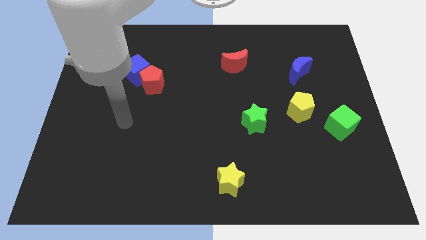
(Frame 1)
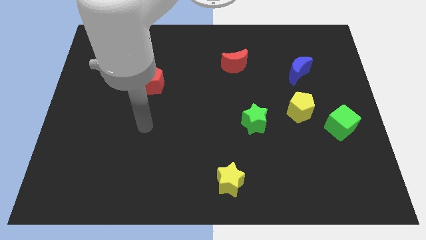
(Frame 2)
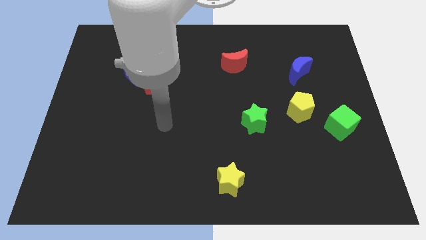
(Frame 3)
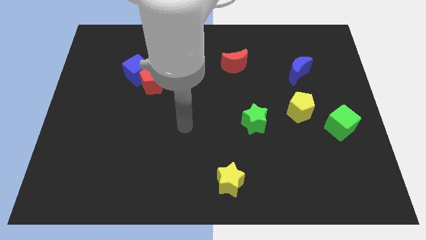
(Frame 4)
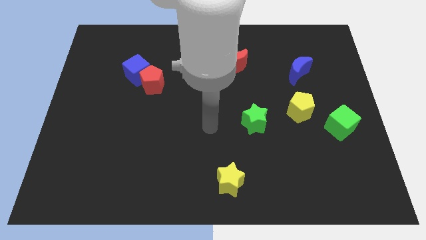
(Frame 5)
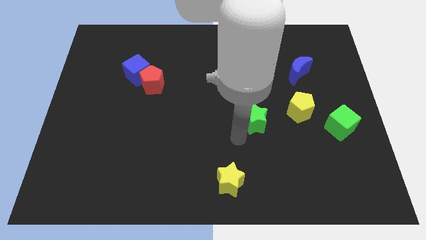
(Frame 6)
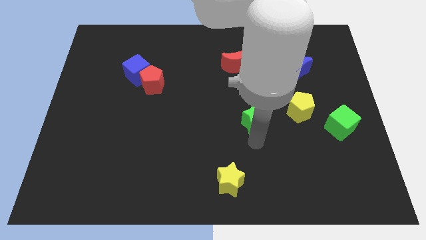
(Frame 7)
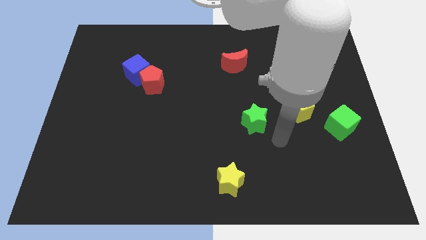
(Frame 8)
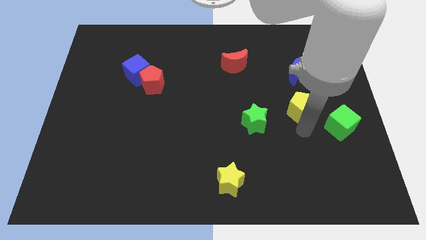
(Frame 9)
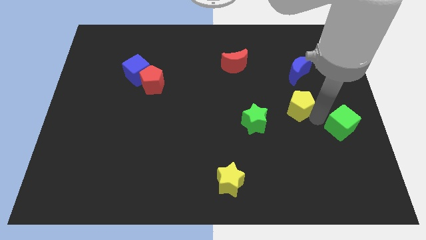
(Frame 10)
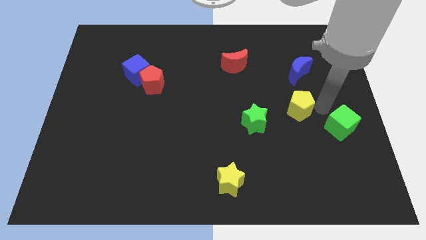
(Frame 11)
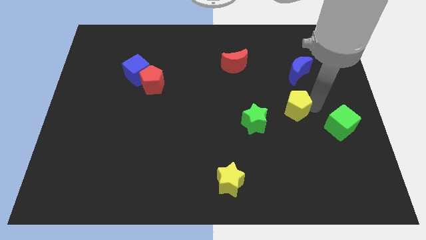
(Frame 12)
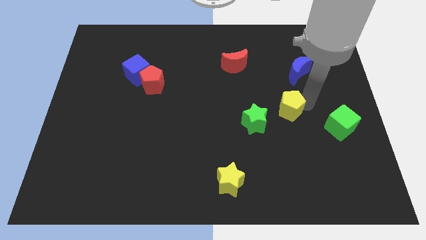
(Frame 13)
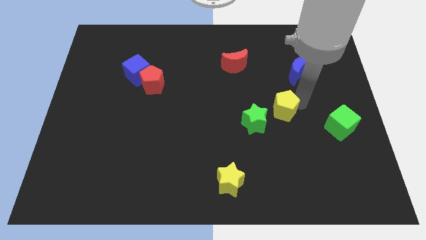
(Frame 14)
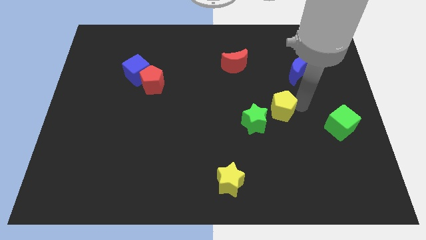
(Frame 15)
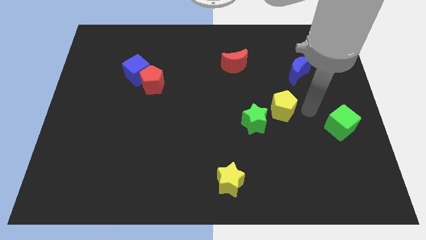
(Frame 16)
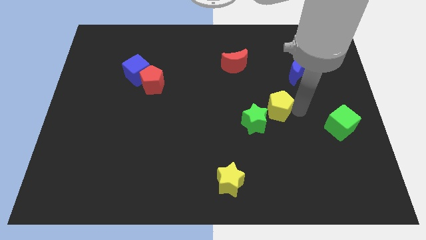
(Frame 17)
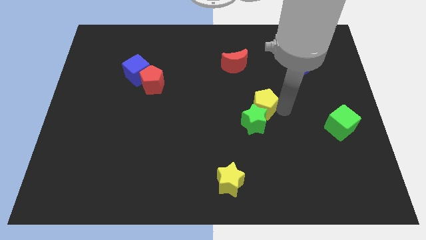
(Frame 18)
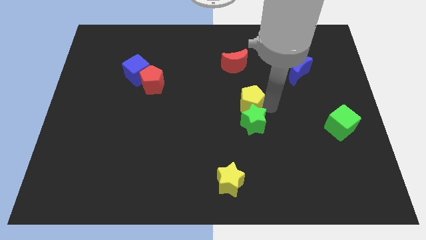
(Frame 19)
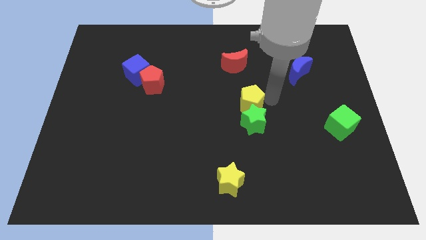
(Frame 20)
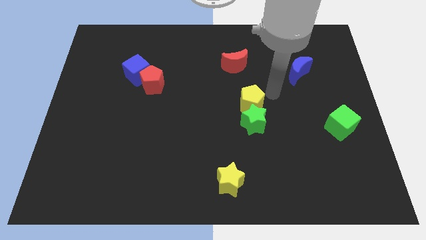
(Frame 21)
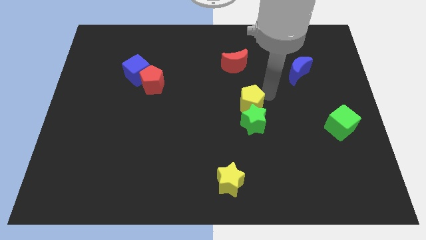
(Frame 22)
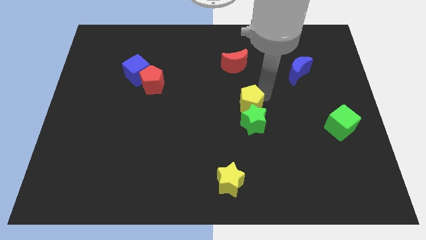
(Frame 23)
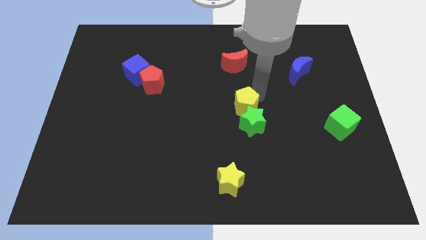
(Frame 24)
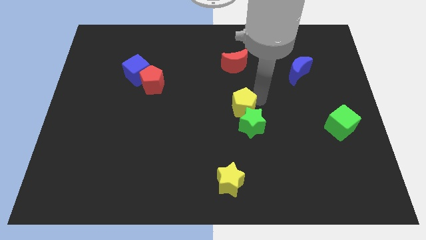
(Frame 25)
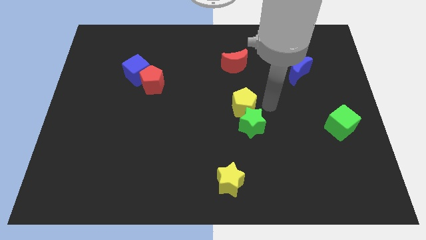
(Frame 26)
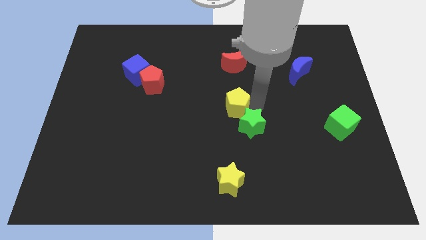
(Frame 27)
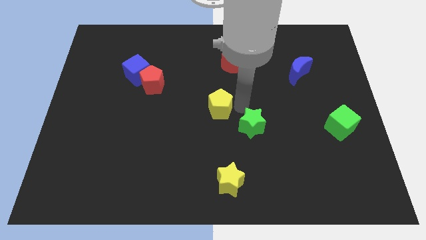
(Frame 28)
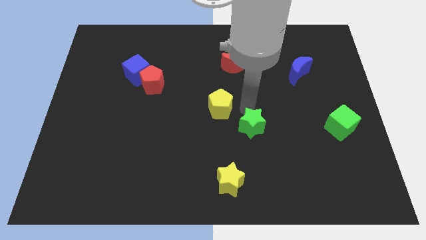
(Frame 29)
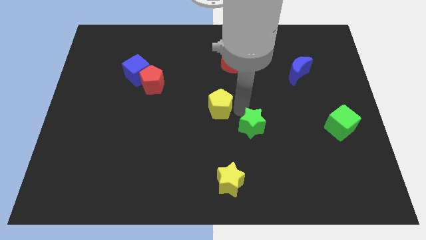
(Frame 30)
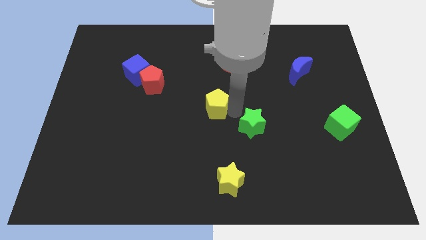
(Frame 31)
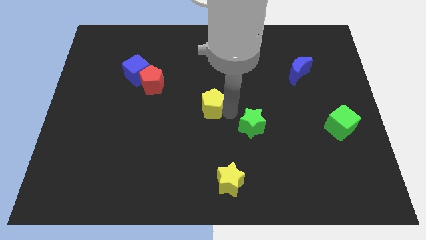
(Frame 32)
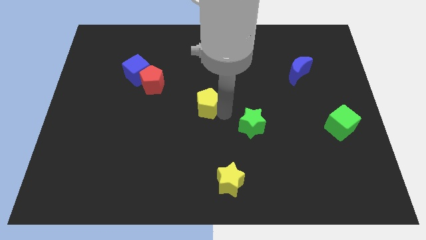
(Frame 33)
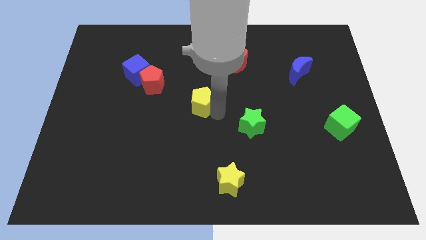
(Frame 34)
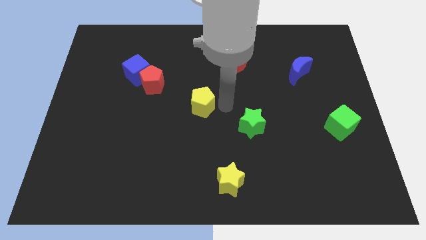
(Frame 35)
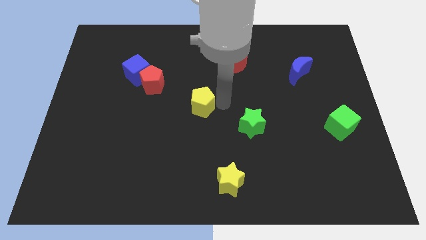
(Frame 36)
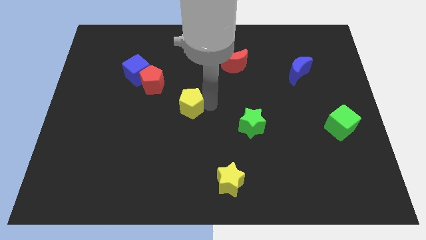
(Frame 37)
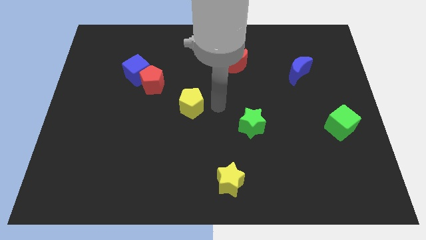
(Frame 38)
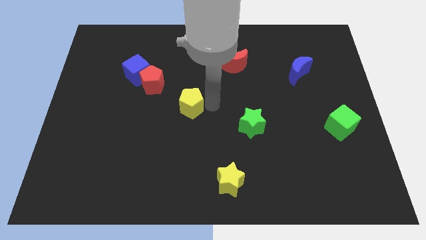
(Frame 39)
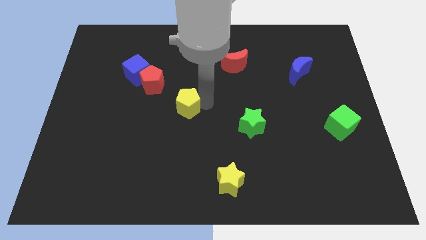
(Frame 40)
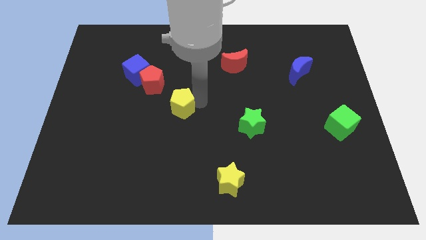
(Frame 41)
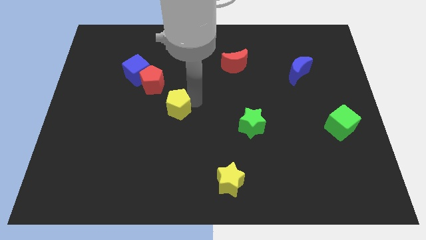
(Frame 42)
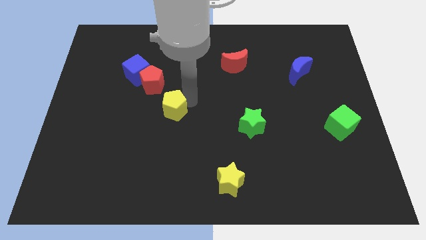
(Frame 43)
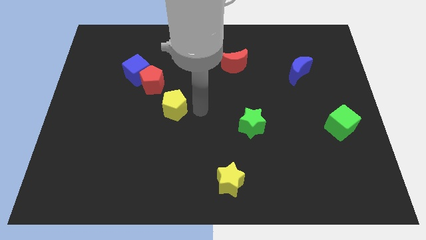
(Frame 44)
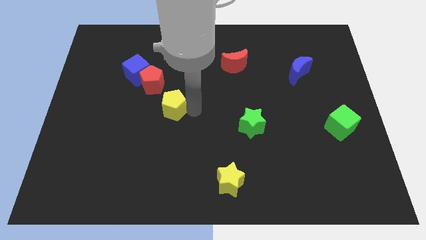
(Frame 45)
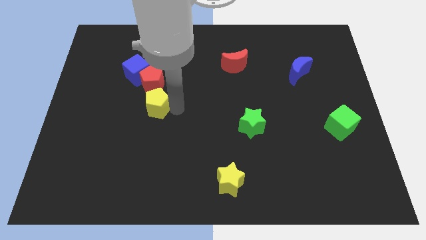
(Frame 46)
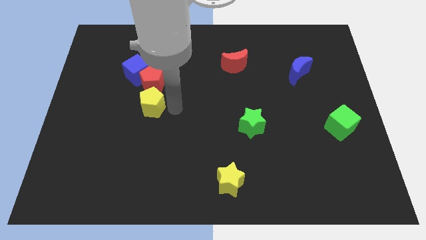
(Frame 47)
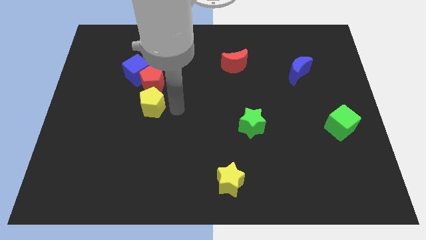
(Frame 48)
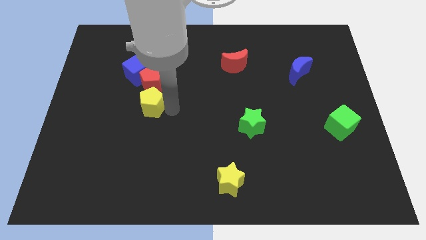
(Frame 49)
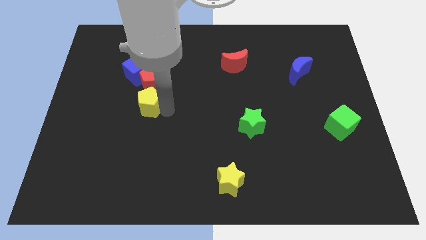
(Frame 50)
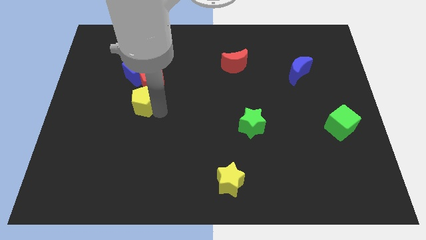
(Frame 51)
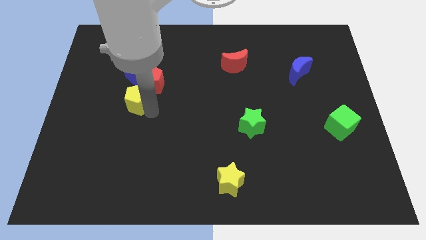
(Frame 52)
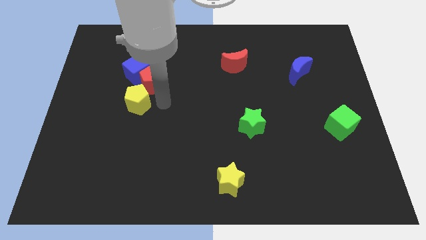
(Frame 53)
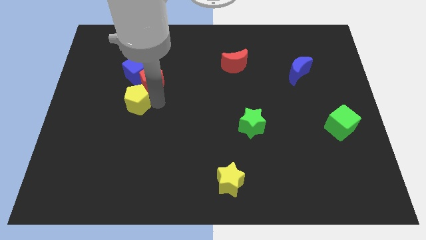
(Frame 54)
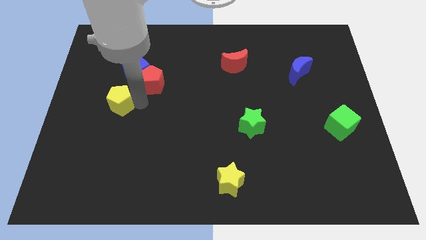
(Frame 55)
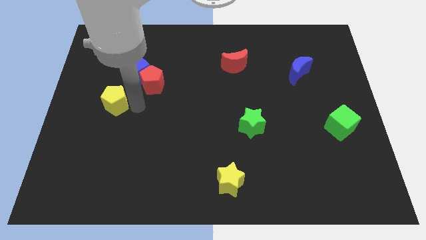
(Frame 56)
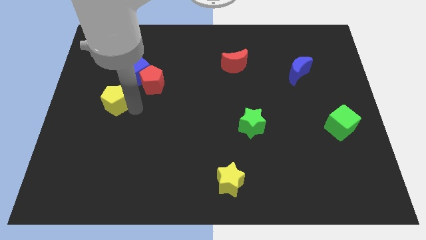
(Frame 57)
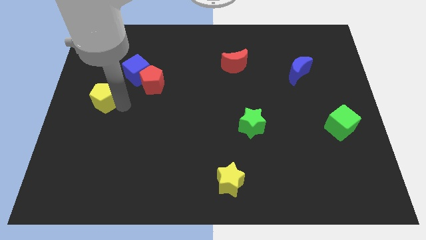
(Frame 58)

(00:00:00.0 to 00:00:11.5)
put the yellow pentagon to the center left

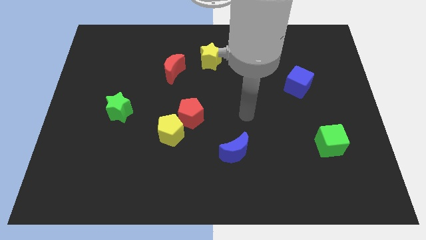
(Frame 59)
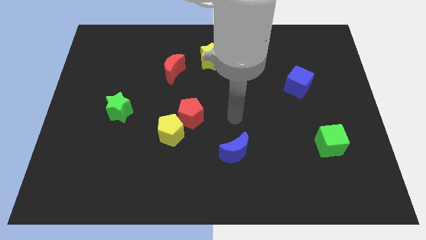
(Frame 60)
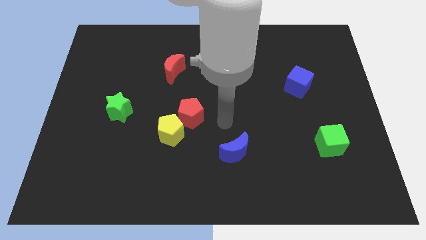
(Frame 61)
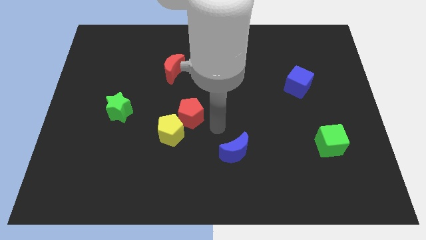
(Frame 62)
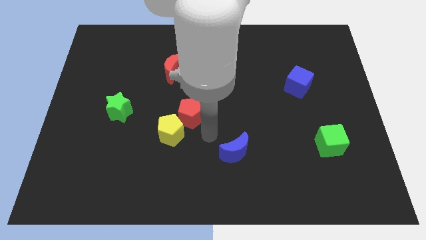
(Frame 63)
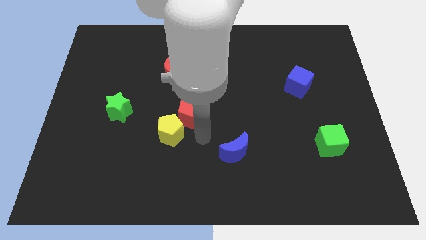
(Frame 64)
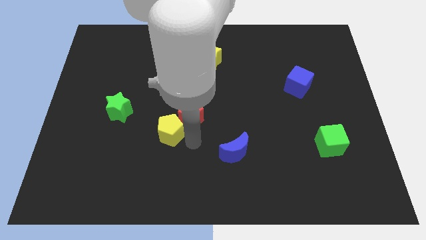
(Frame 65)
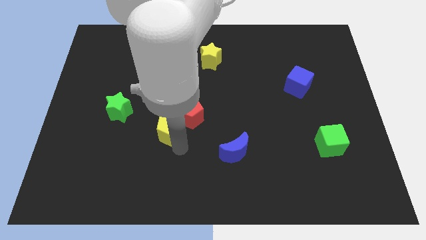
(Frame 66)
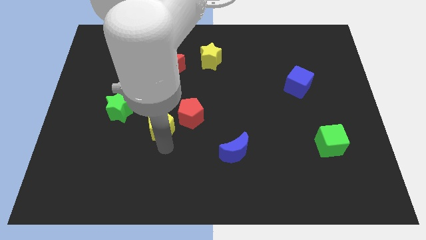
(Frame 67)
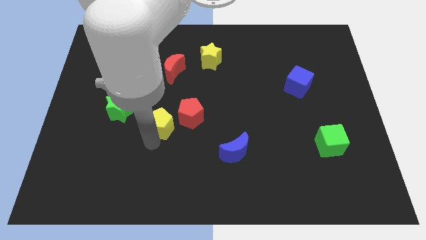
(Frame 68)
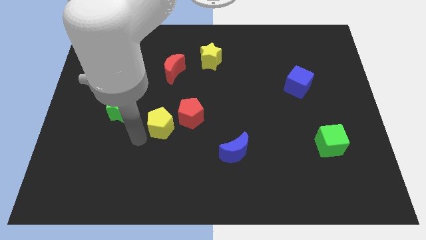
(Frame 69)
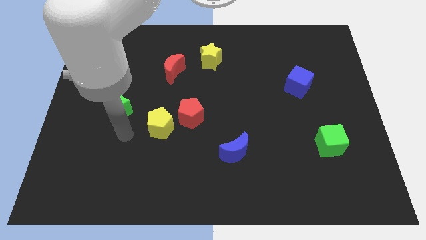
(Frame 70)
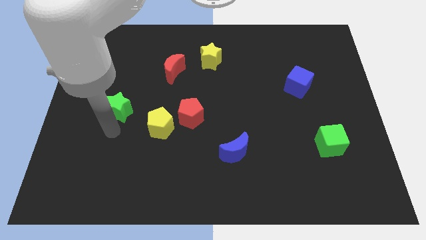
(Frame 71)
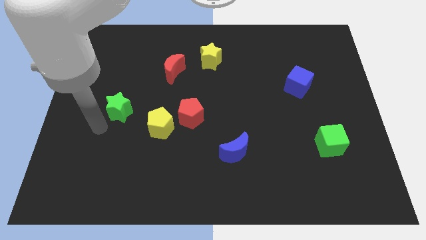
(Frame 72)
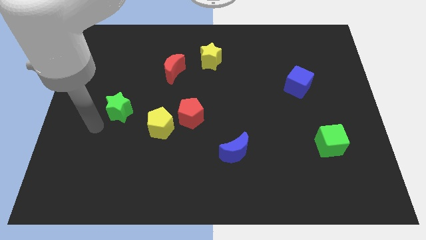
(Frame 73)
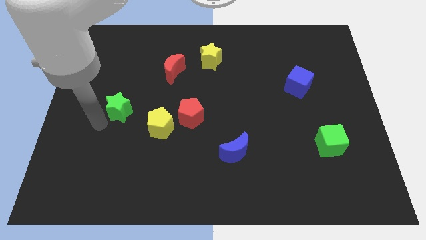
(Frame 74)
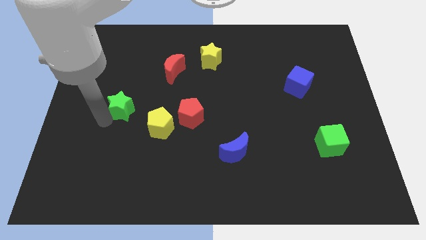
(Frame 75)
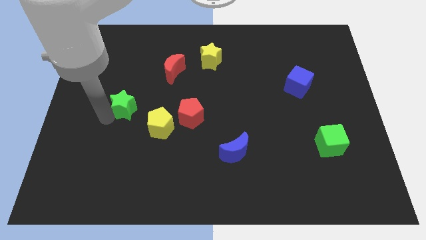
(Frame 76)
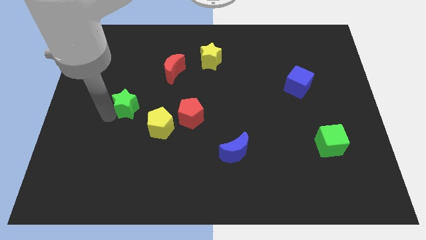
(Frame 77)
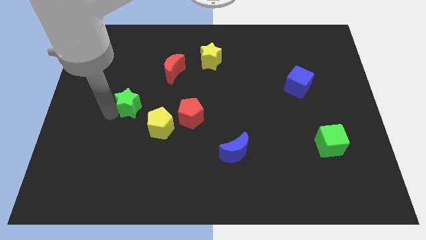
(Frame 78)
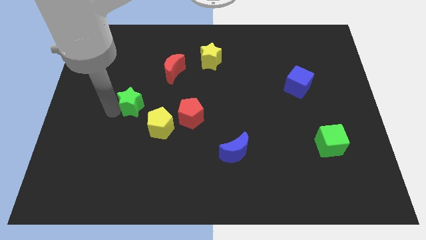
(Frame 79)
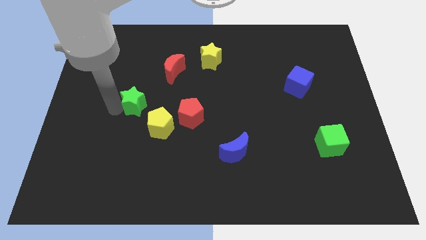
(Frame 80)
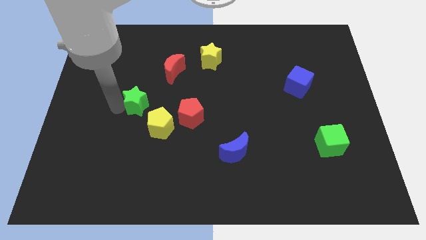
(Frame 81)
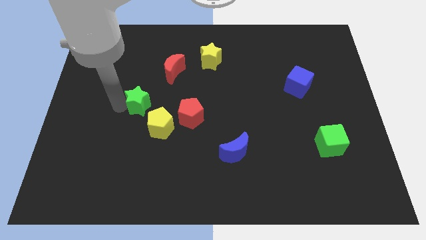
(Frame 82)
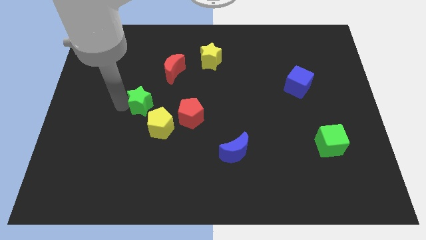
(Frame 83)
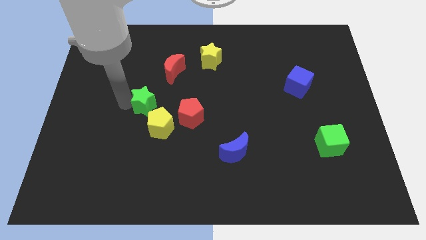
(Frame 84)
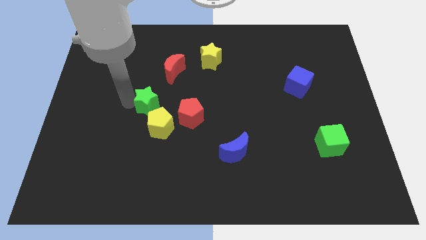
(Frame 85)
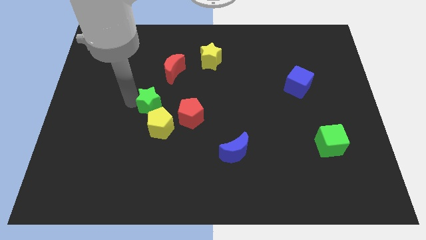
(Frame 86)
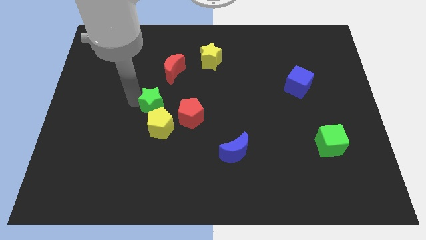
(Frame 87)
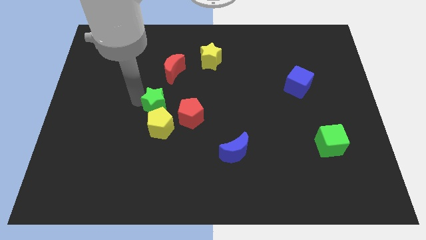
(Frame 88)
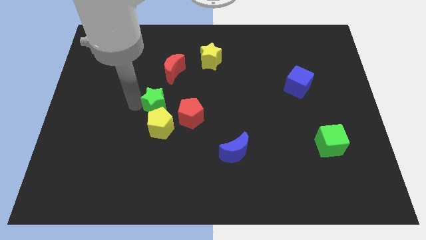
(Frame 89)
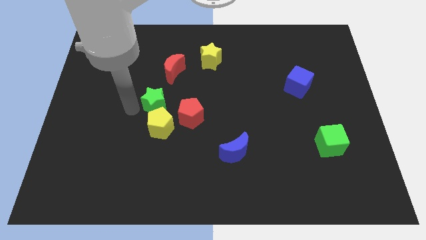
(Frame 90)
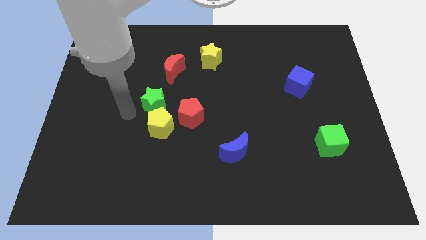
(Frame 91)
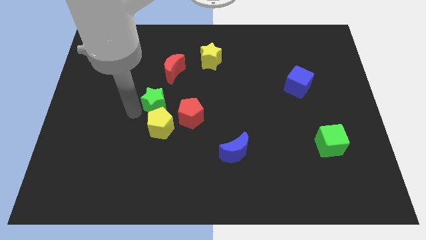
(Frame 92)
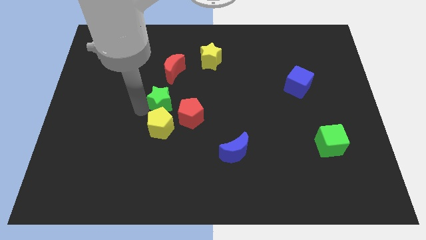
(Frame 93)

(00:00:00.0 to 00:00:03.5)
move the green star to the middle
